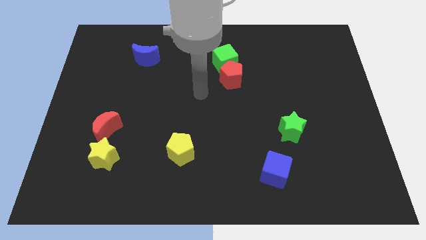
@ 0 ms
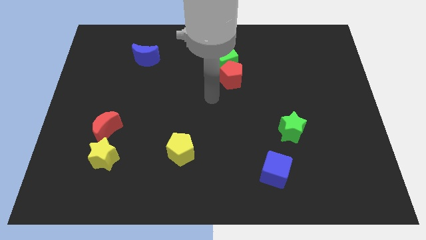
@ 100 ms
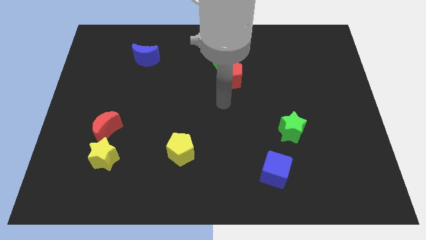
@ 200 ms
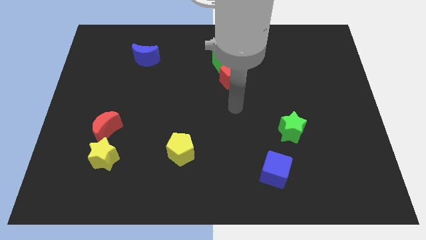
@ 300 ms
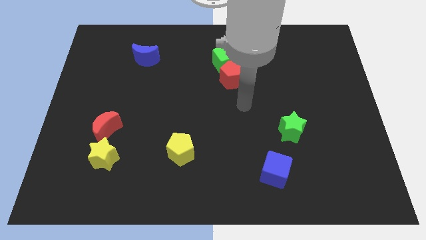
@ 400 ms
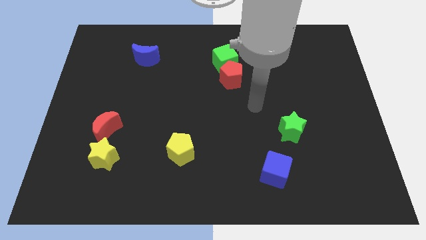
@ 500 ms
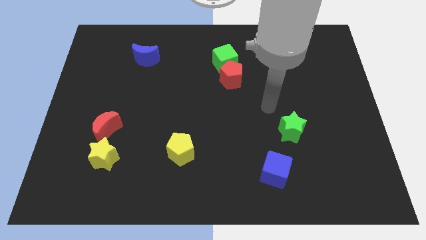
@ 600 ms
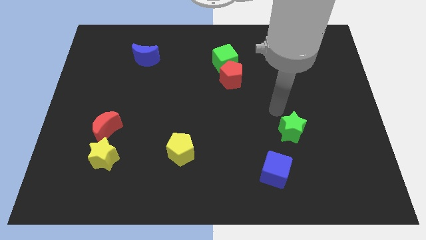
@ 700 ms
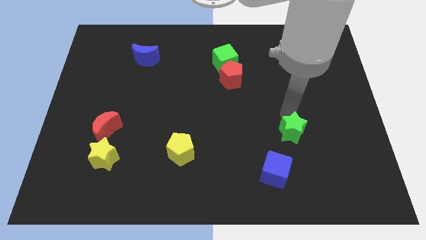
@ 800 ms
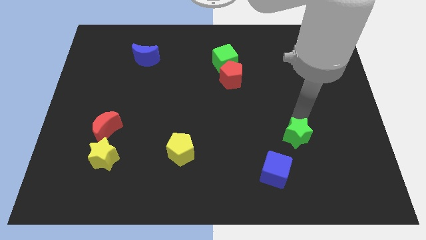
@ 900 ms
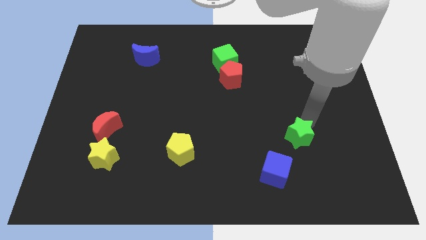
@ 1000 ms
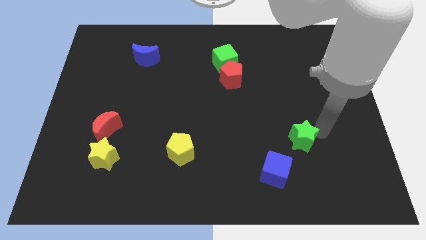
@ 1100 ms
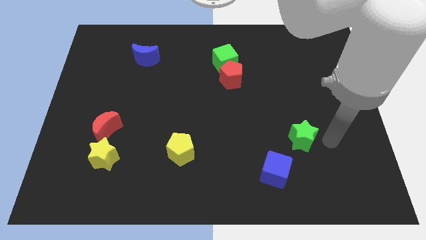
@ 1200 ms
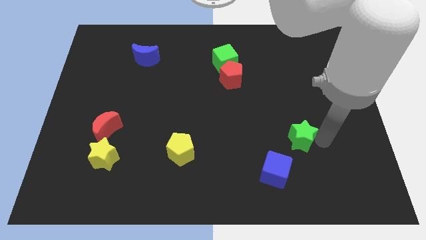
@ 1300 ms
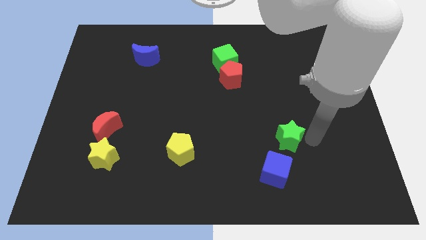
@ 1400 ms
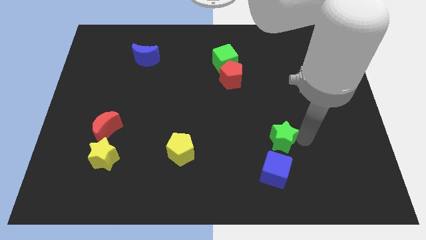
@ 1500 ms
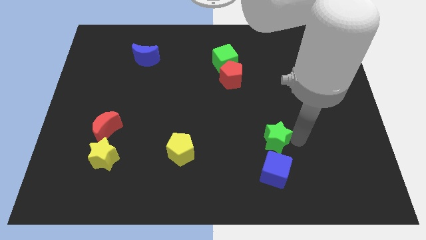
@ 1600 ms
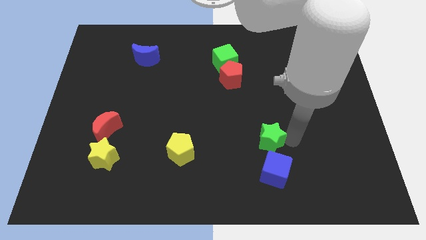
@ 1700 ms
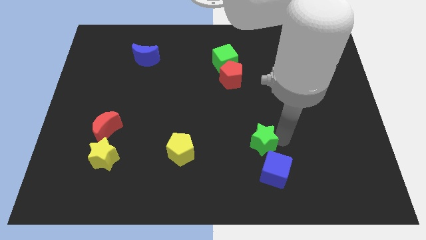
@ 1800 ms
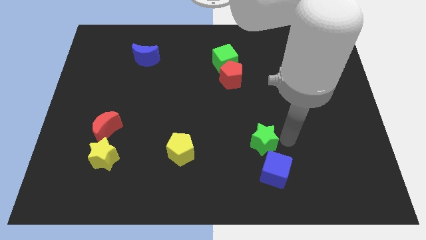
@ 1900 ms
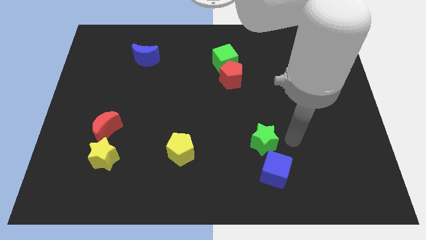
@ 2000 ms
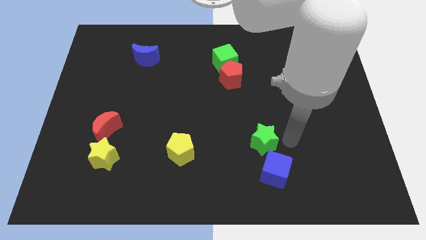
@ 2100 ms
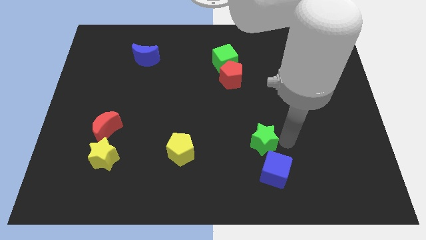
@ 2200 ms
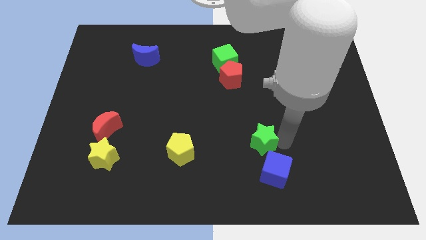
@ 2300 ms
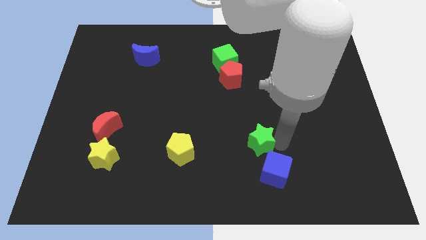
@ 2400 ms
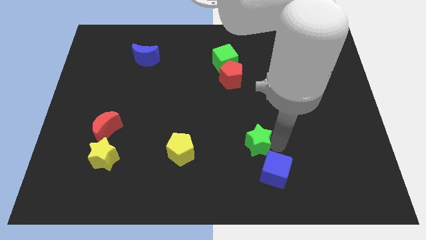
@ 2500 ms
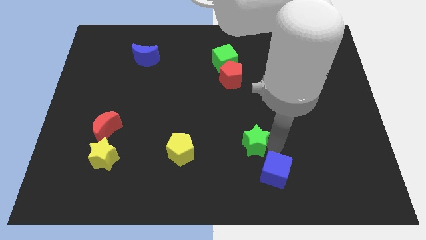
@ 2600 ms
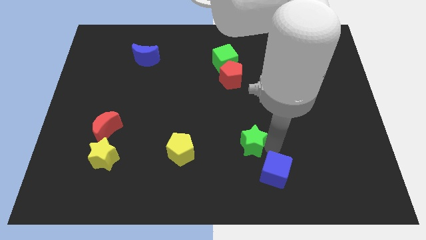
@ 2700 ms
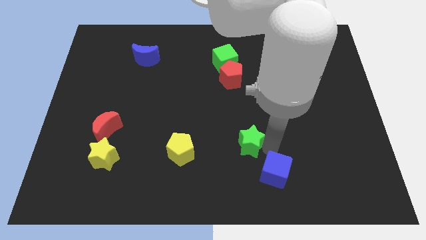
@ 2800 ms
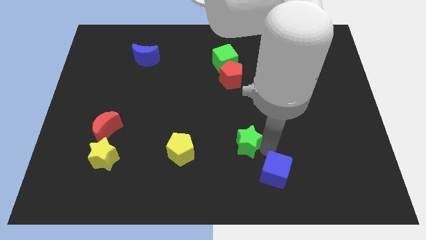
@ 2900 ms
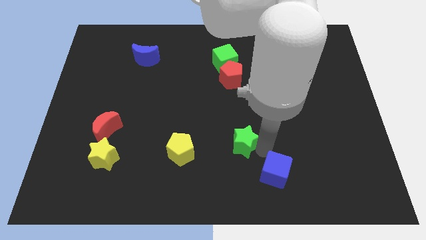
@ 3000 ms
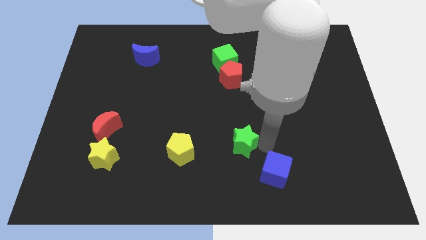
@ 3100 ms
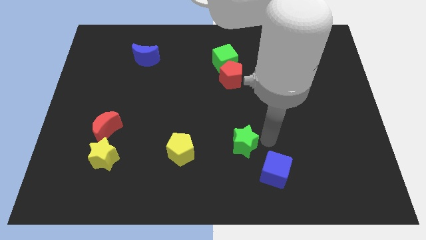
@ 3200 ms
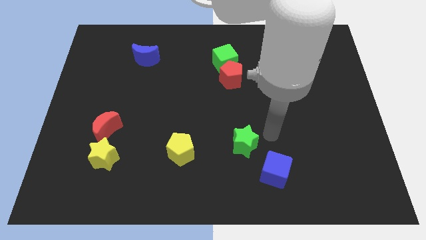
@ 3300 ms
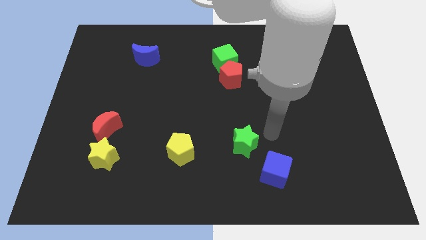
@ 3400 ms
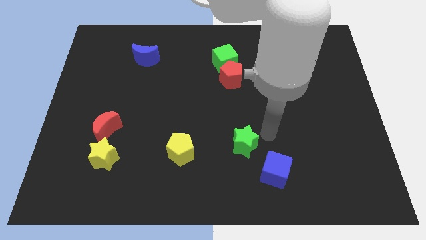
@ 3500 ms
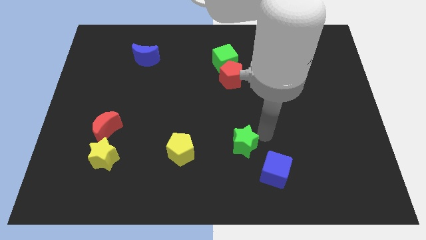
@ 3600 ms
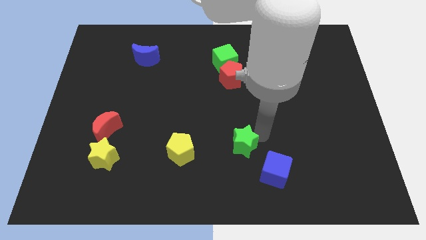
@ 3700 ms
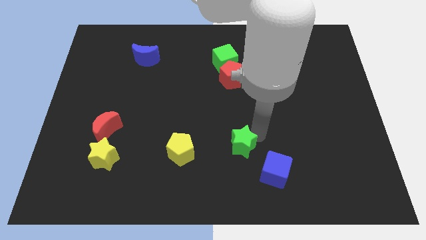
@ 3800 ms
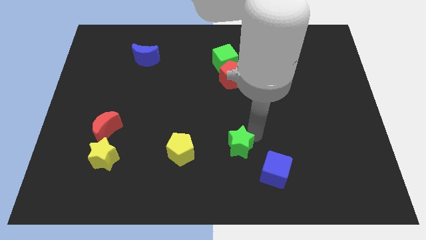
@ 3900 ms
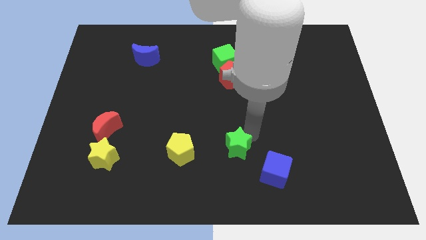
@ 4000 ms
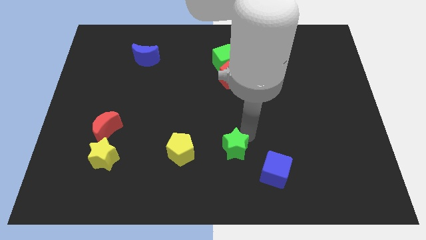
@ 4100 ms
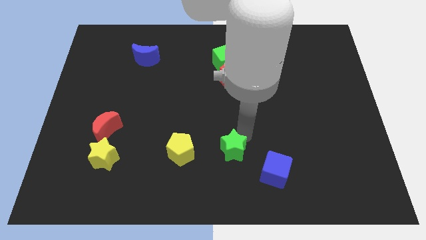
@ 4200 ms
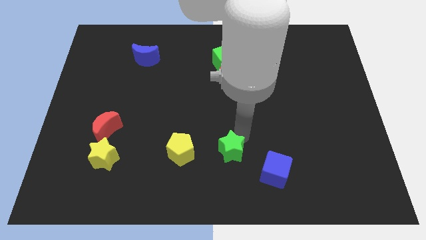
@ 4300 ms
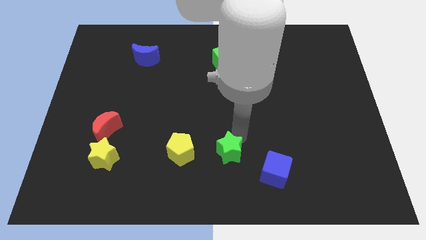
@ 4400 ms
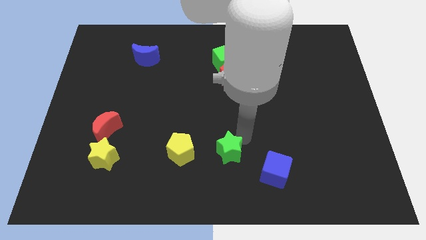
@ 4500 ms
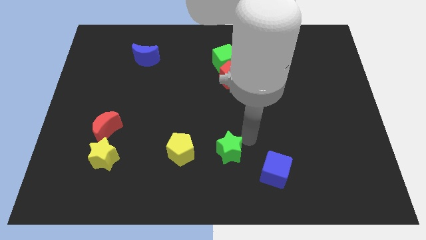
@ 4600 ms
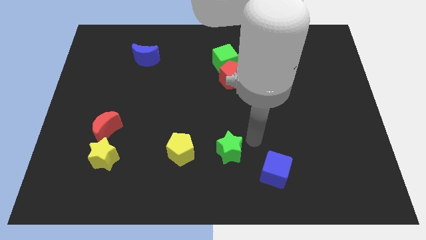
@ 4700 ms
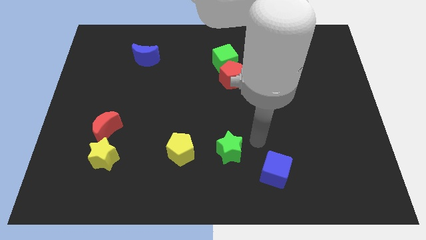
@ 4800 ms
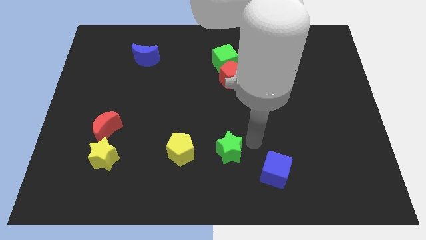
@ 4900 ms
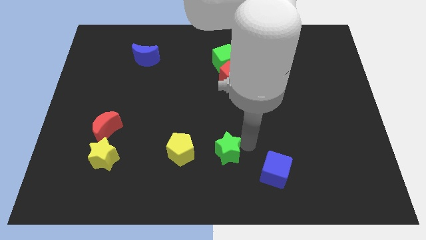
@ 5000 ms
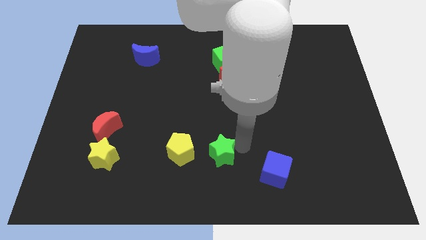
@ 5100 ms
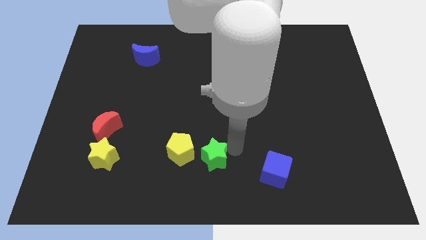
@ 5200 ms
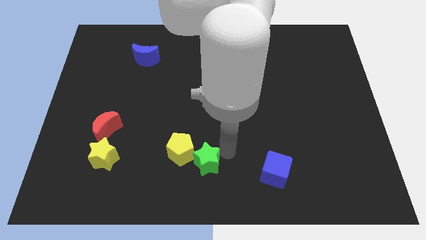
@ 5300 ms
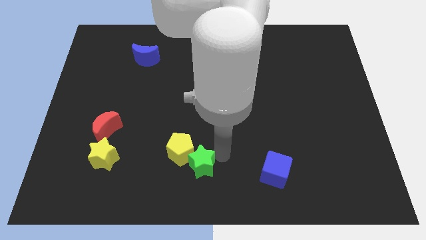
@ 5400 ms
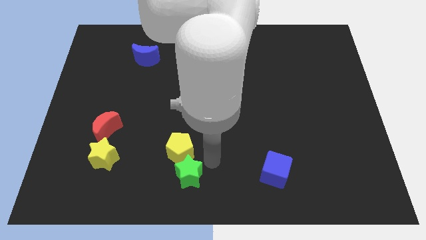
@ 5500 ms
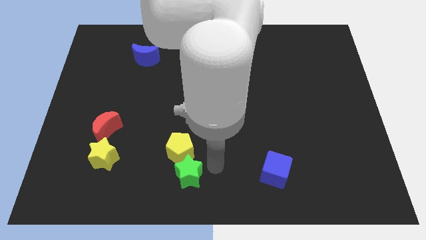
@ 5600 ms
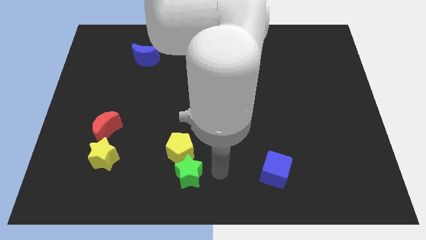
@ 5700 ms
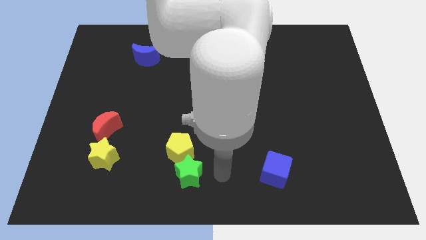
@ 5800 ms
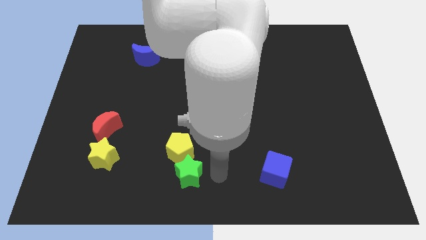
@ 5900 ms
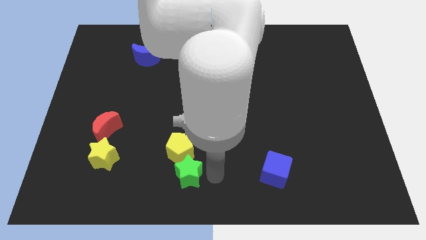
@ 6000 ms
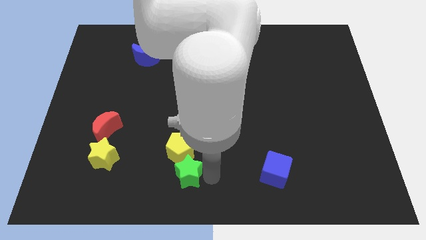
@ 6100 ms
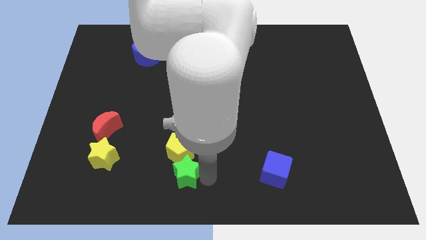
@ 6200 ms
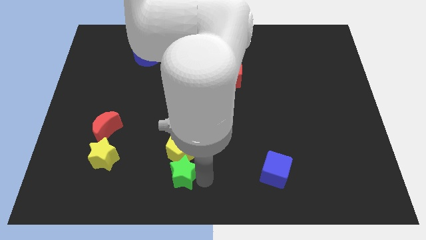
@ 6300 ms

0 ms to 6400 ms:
push the green star to the bottom left of the yellow pentagon

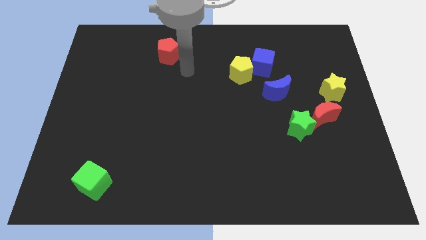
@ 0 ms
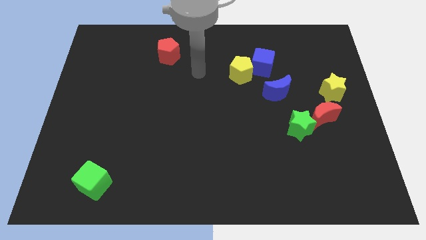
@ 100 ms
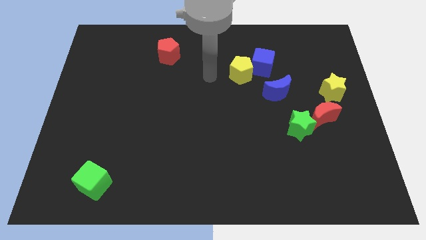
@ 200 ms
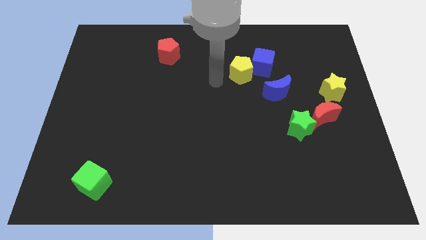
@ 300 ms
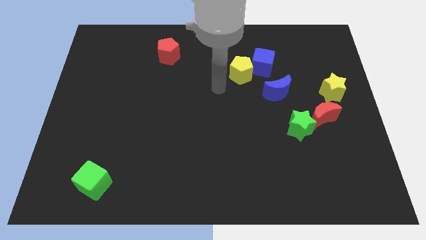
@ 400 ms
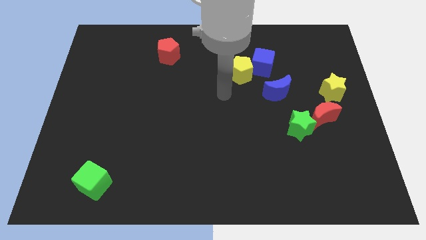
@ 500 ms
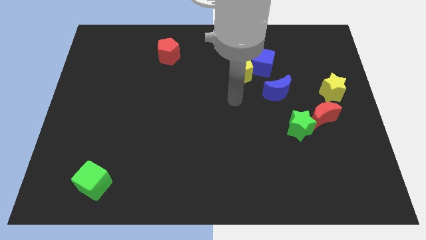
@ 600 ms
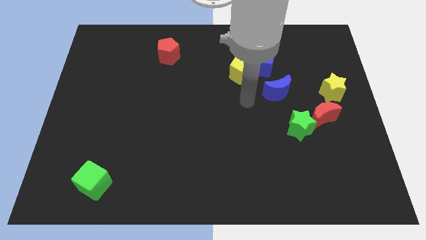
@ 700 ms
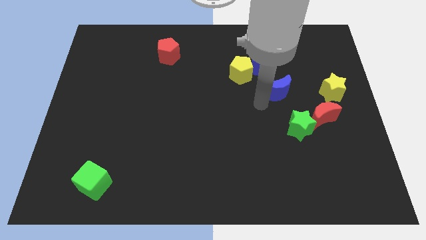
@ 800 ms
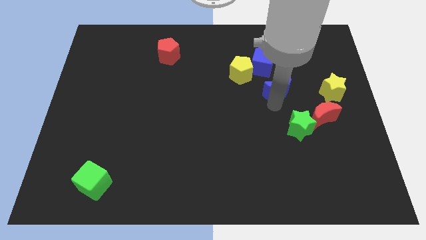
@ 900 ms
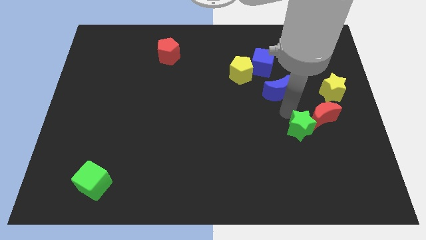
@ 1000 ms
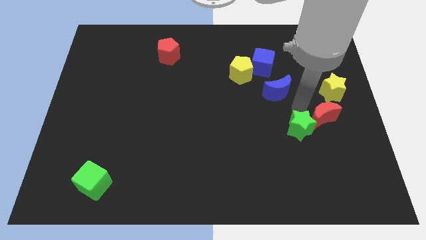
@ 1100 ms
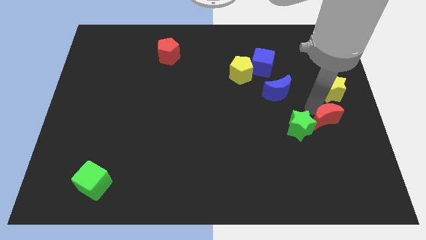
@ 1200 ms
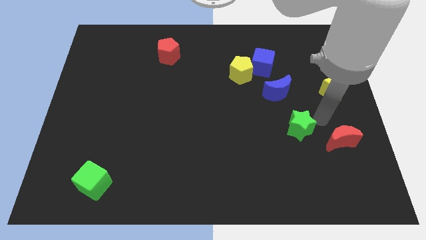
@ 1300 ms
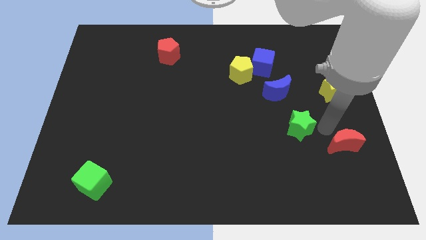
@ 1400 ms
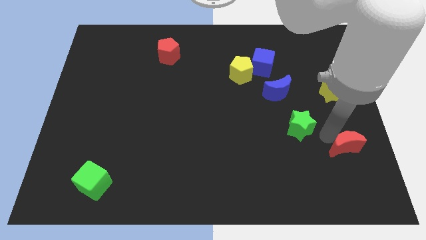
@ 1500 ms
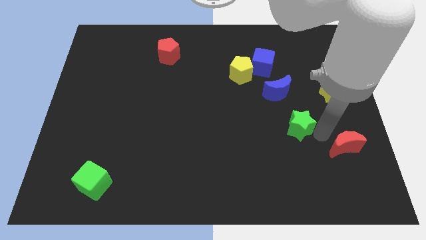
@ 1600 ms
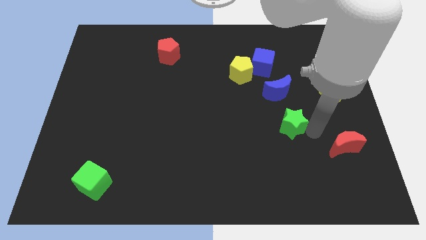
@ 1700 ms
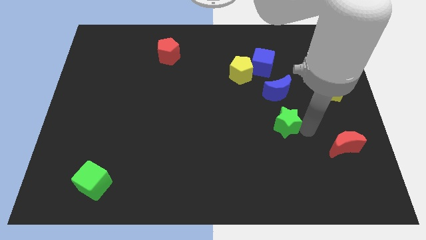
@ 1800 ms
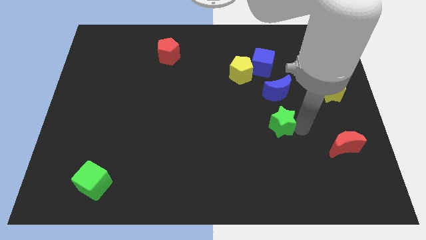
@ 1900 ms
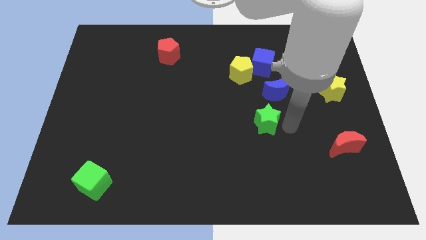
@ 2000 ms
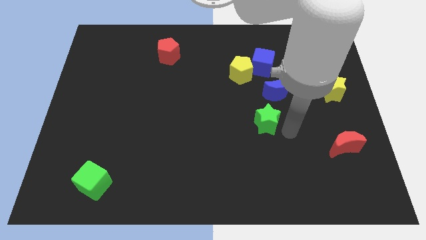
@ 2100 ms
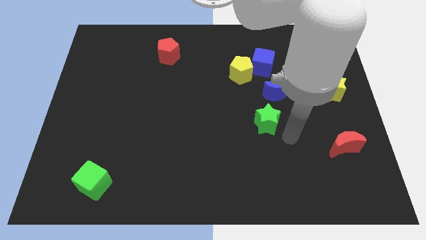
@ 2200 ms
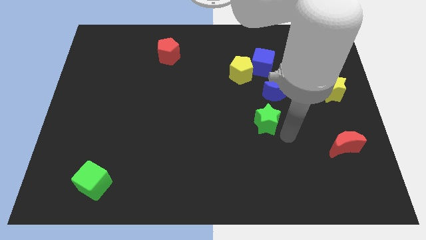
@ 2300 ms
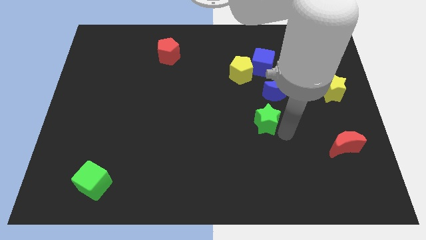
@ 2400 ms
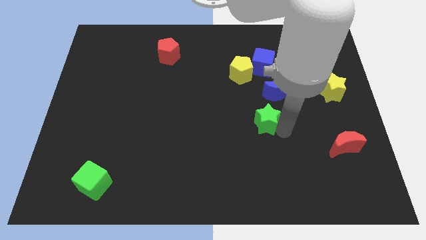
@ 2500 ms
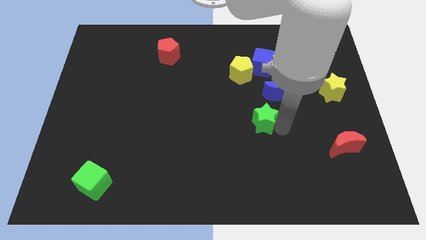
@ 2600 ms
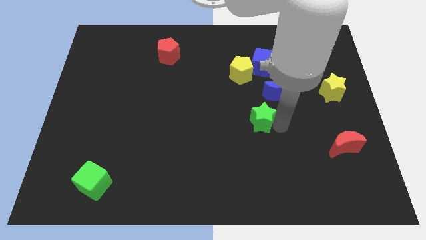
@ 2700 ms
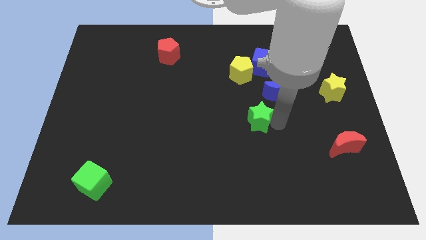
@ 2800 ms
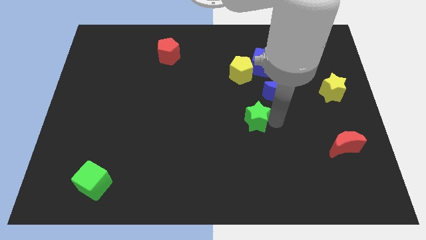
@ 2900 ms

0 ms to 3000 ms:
slide the green star to the bottom of the yellow pentagon
